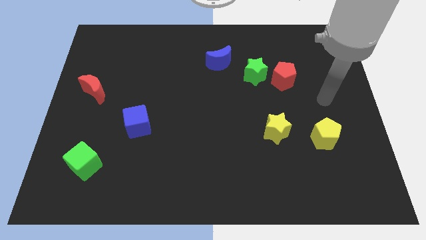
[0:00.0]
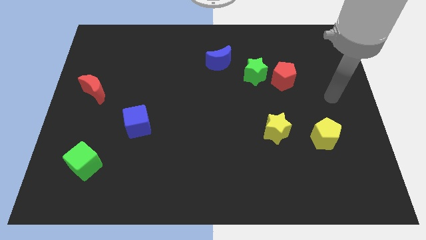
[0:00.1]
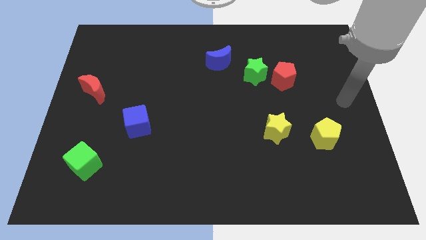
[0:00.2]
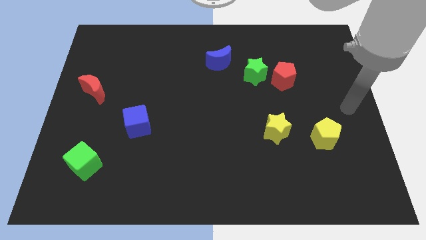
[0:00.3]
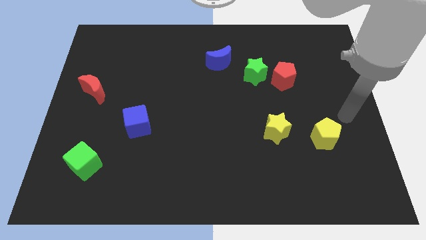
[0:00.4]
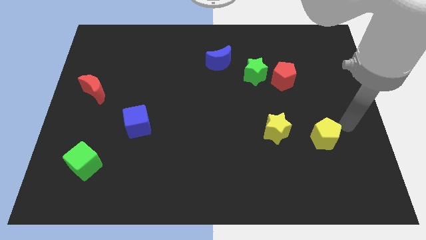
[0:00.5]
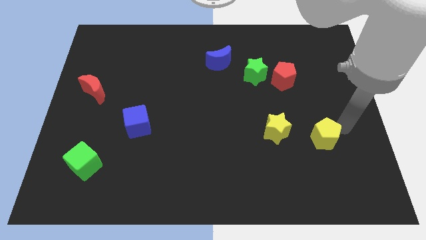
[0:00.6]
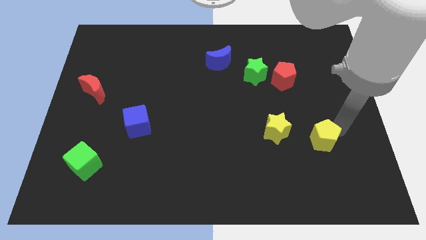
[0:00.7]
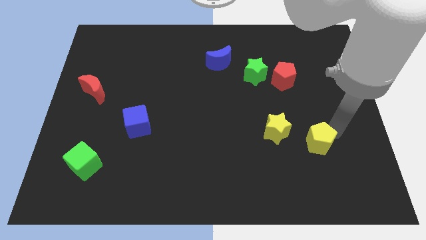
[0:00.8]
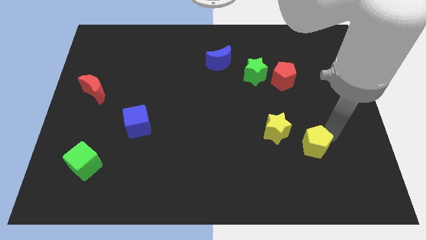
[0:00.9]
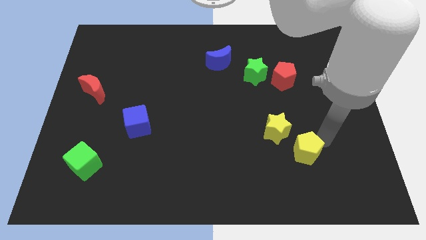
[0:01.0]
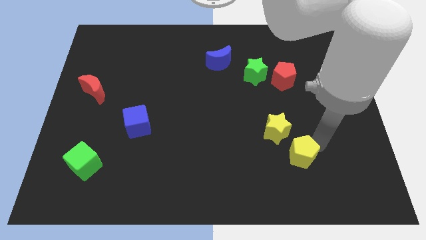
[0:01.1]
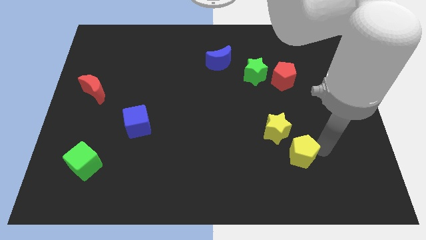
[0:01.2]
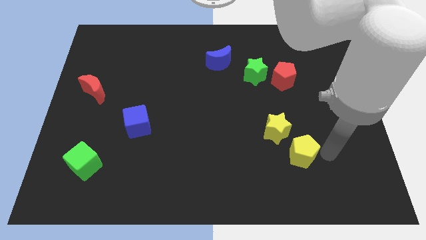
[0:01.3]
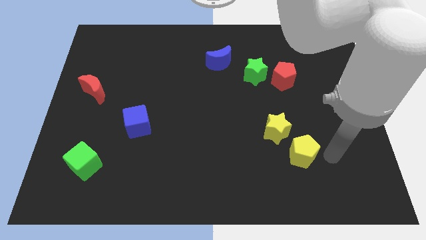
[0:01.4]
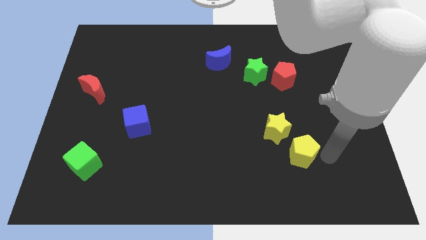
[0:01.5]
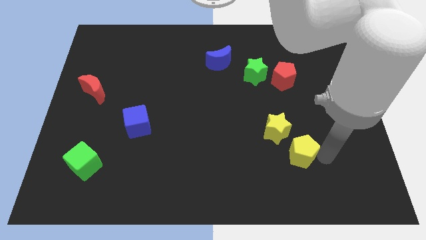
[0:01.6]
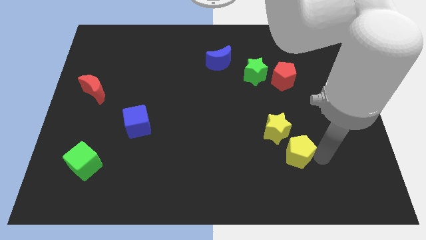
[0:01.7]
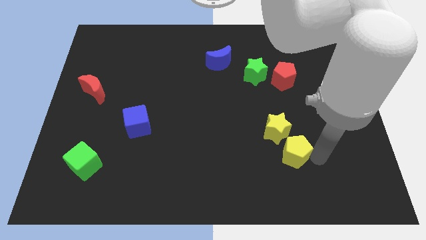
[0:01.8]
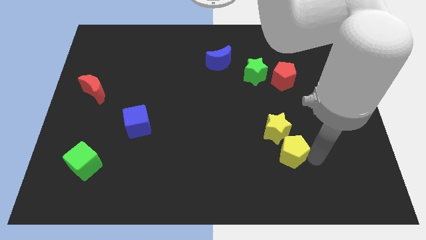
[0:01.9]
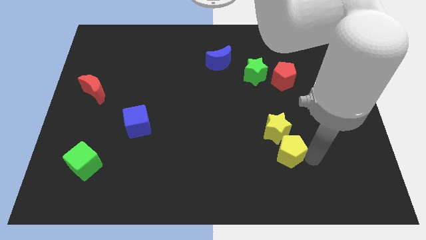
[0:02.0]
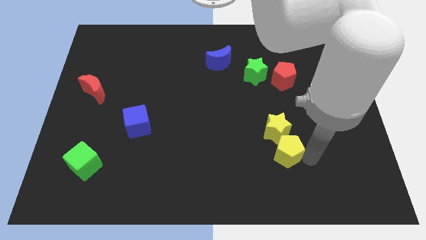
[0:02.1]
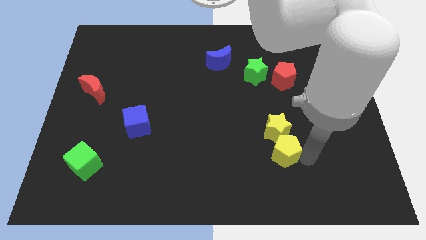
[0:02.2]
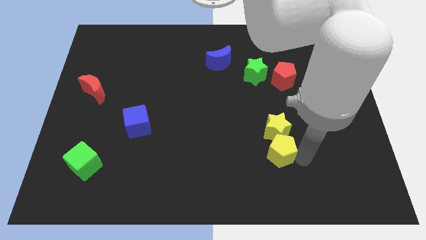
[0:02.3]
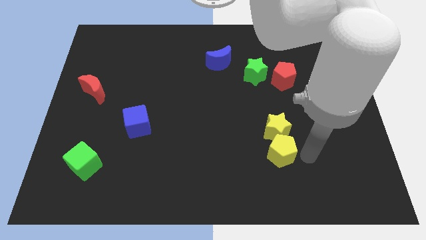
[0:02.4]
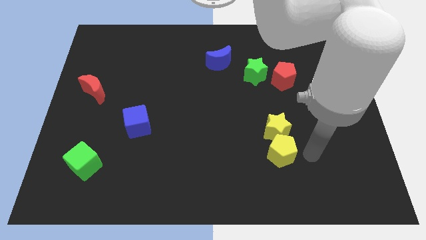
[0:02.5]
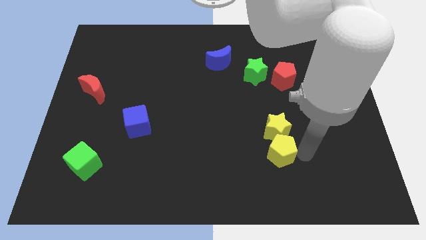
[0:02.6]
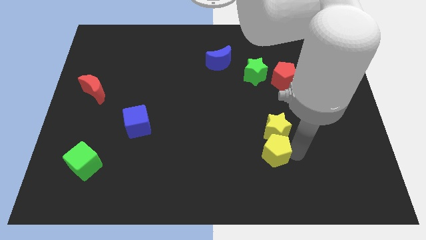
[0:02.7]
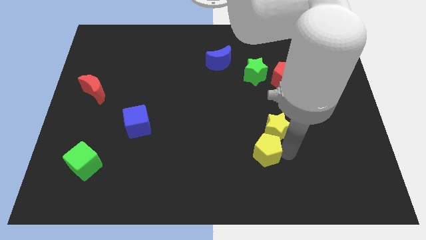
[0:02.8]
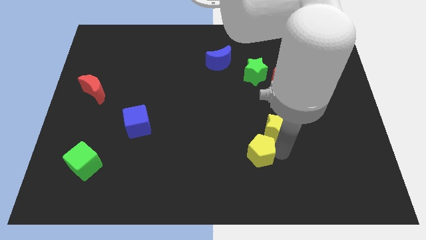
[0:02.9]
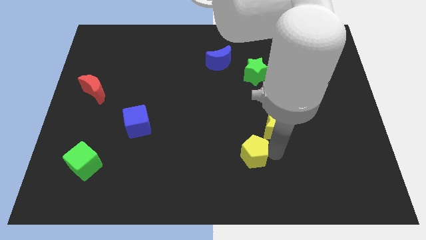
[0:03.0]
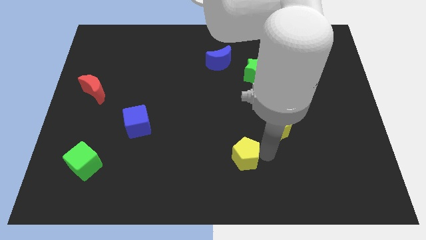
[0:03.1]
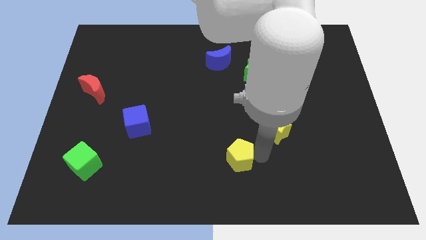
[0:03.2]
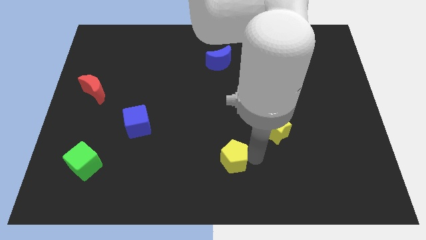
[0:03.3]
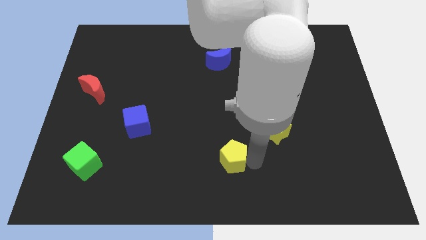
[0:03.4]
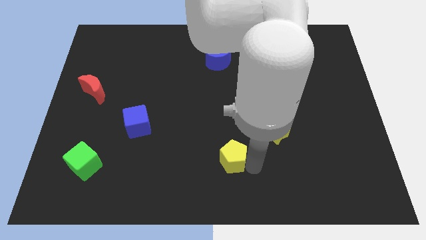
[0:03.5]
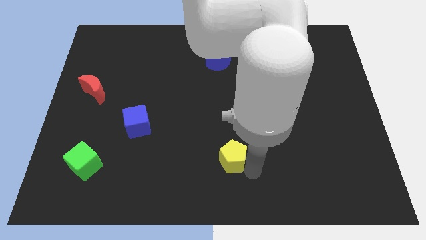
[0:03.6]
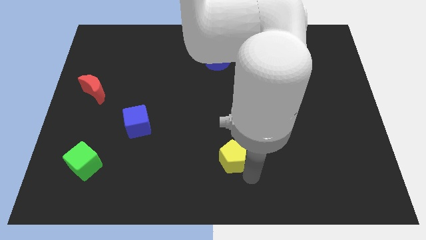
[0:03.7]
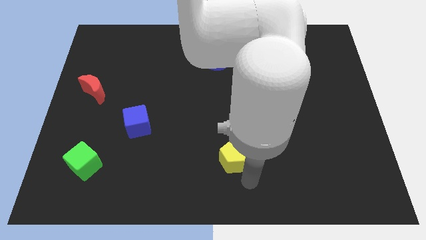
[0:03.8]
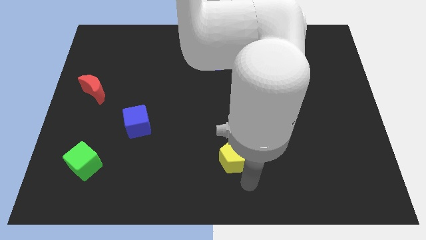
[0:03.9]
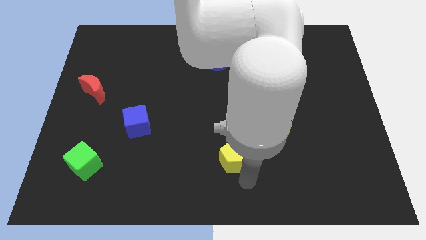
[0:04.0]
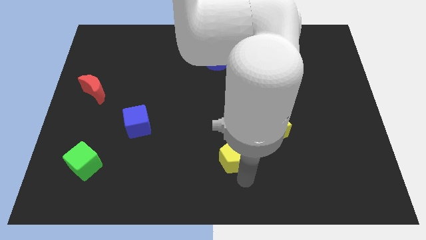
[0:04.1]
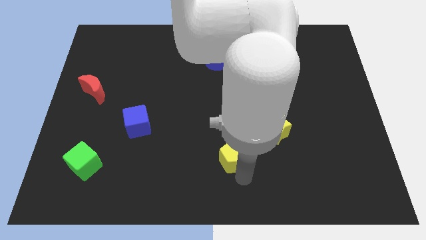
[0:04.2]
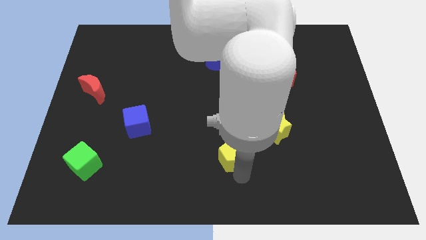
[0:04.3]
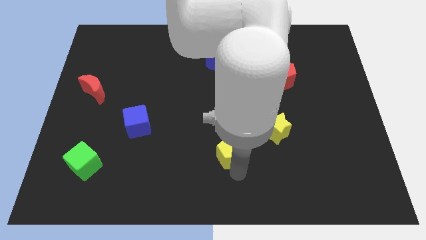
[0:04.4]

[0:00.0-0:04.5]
move the yellow pentagon to the left

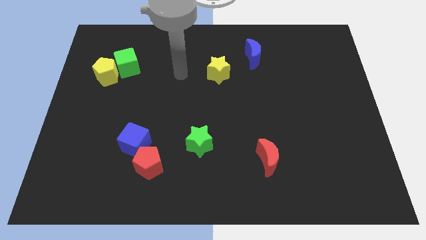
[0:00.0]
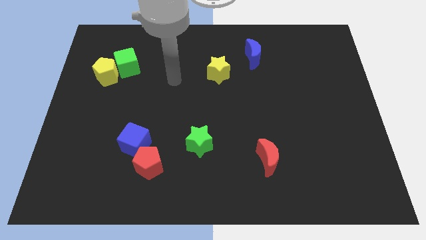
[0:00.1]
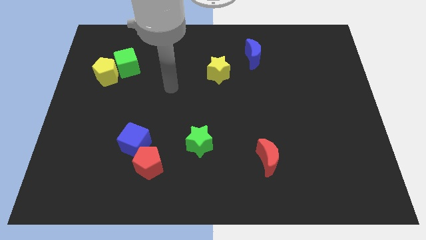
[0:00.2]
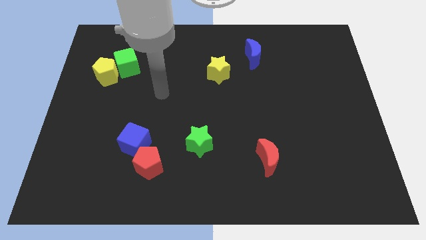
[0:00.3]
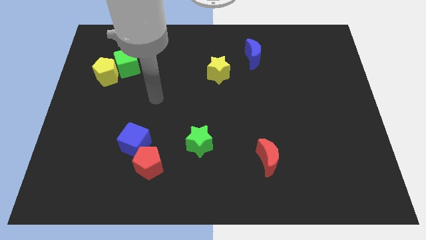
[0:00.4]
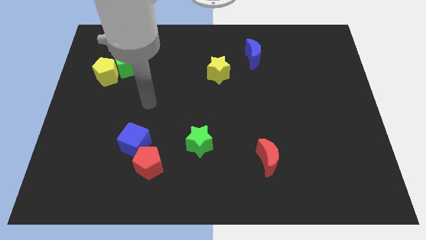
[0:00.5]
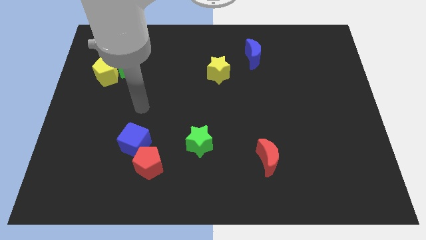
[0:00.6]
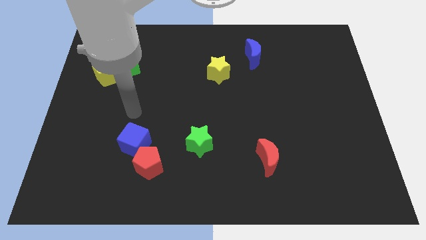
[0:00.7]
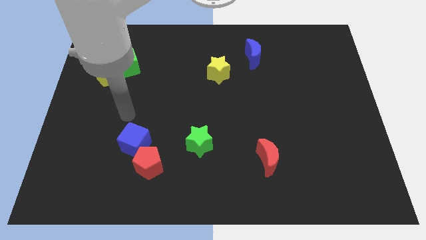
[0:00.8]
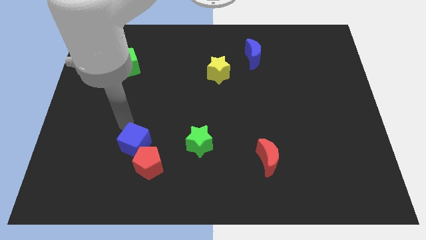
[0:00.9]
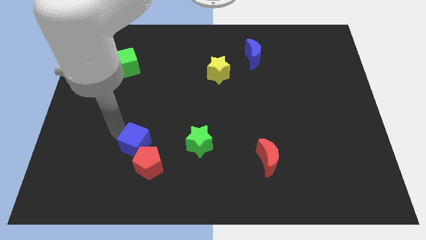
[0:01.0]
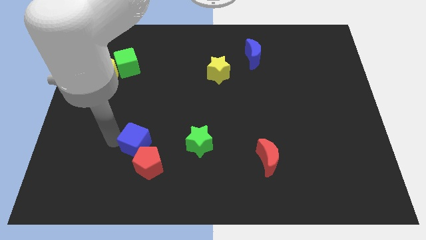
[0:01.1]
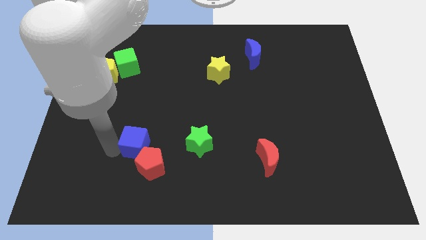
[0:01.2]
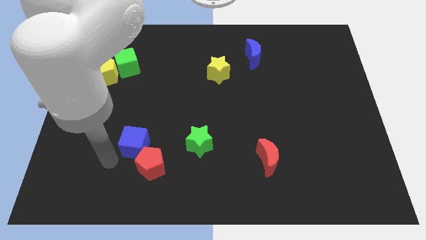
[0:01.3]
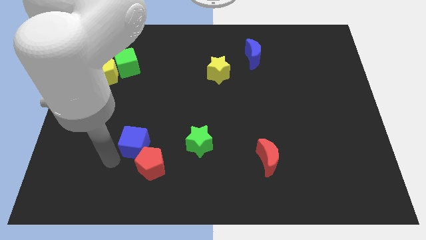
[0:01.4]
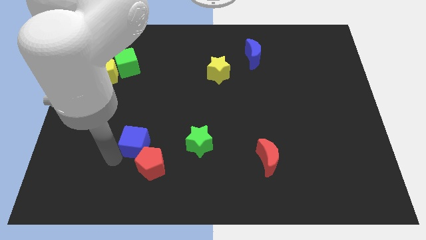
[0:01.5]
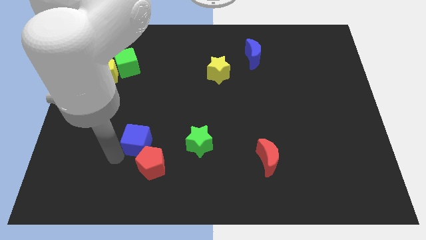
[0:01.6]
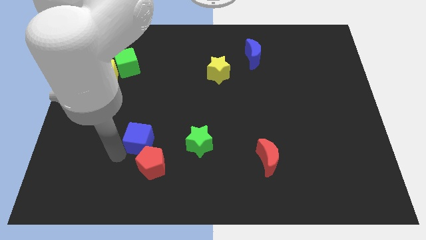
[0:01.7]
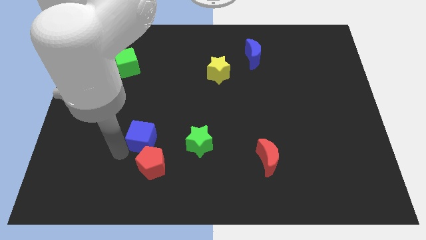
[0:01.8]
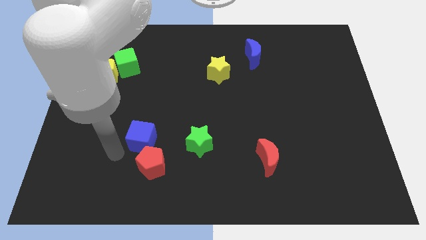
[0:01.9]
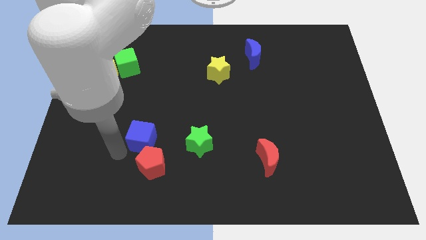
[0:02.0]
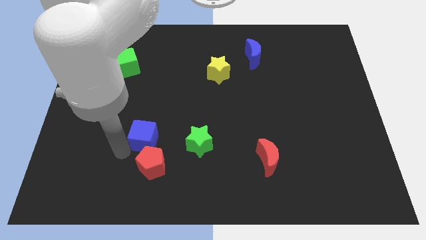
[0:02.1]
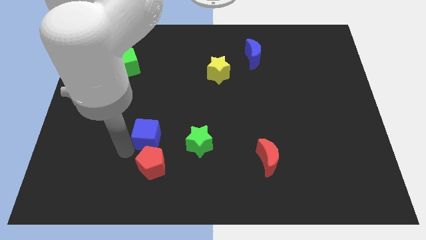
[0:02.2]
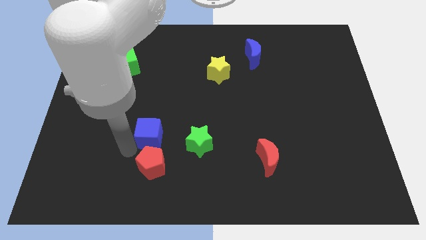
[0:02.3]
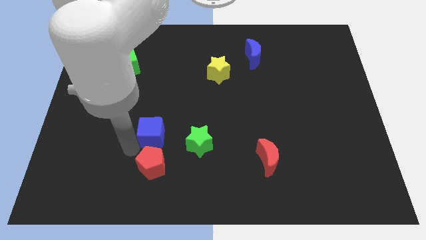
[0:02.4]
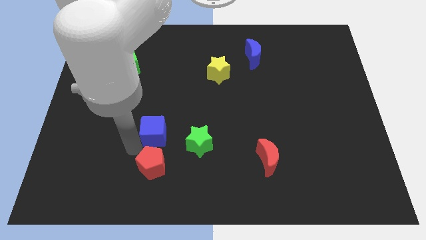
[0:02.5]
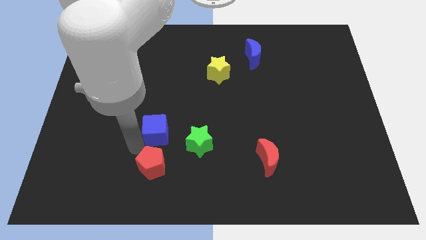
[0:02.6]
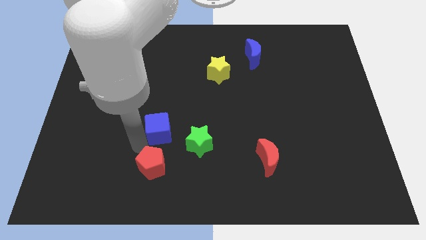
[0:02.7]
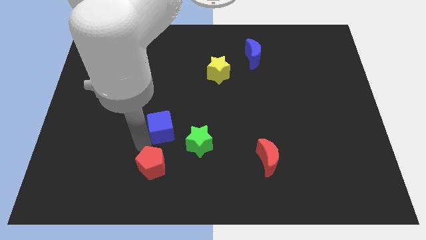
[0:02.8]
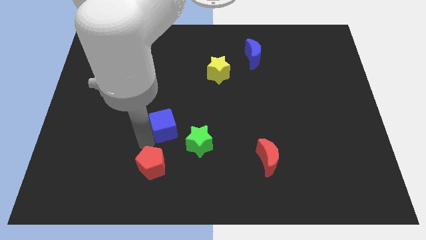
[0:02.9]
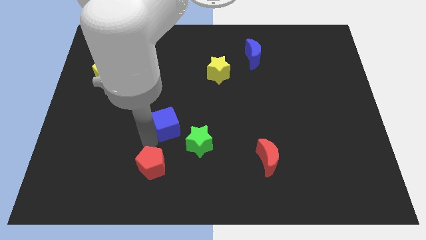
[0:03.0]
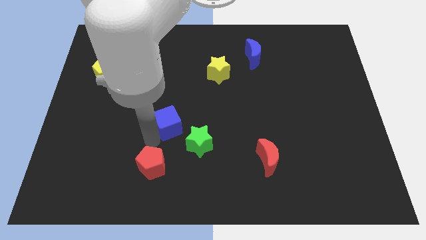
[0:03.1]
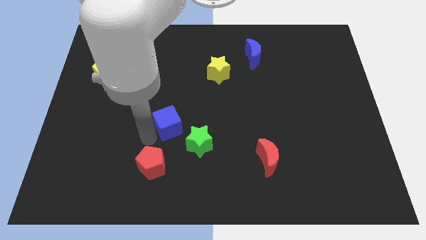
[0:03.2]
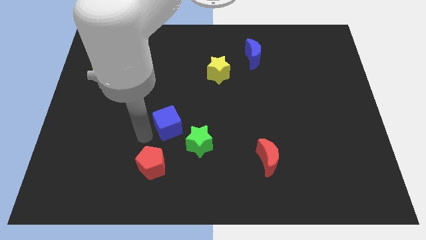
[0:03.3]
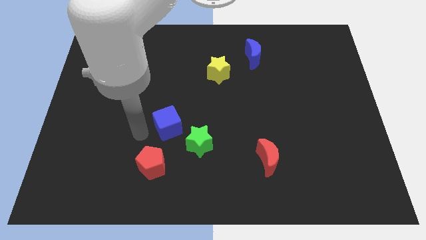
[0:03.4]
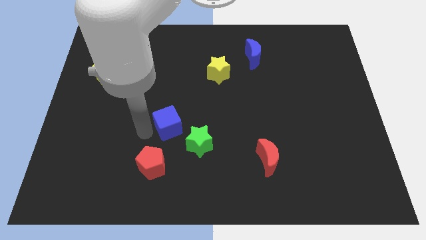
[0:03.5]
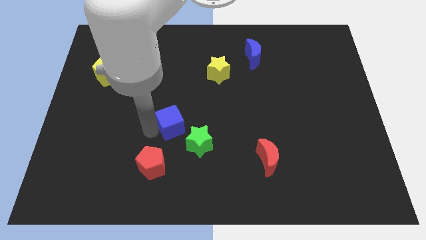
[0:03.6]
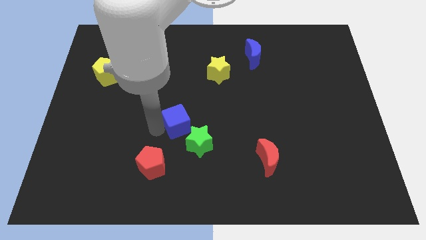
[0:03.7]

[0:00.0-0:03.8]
slightly push the blue cube right
